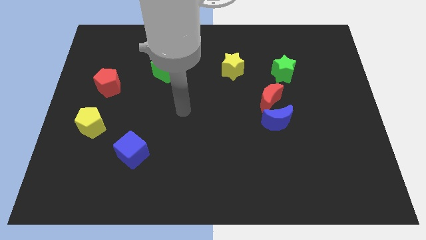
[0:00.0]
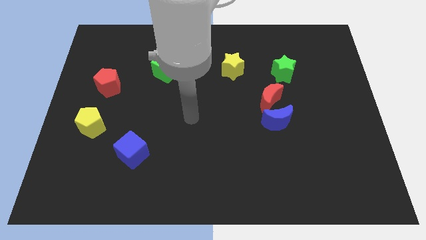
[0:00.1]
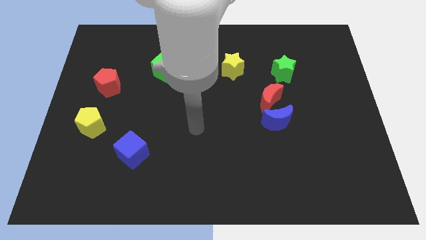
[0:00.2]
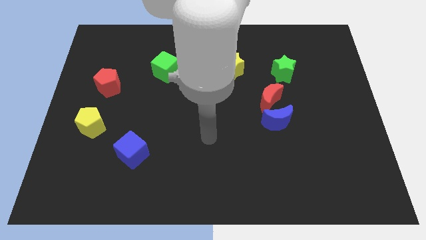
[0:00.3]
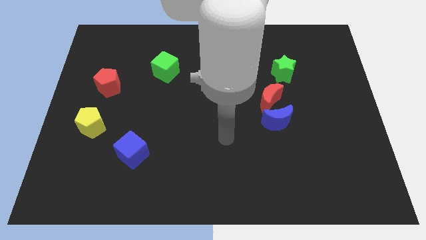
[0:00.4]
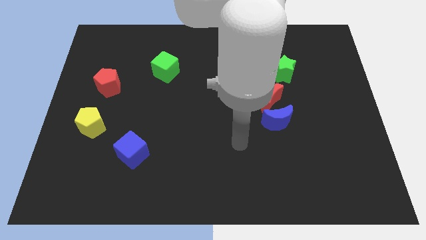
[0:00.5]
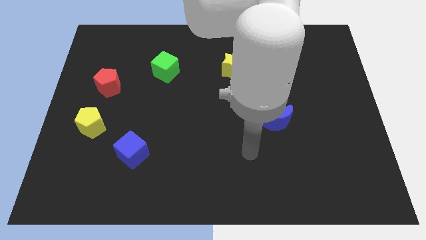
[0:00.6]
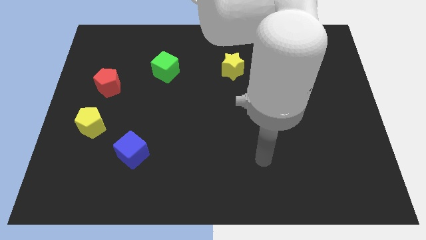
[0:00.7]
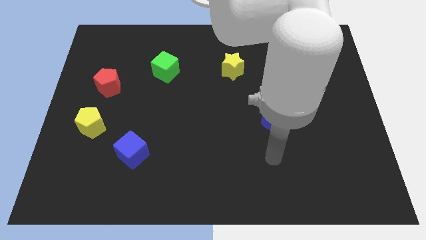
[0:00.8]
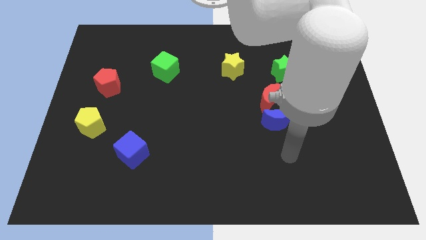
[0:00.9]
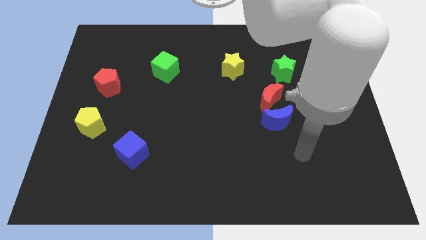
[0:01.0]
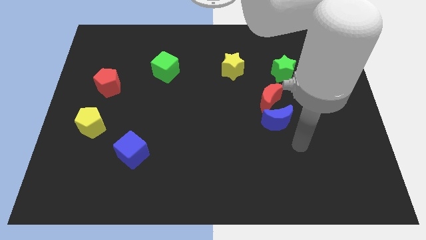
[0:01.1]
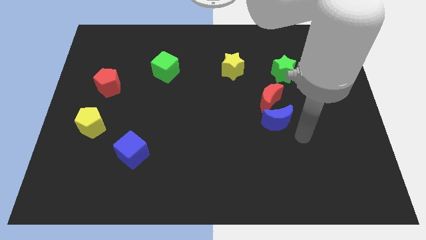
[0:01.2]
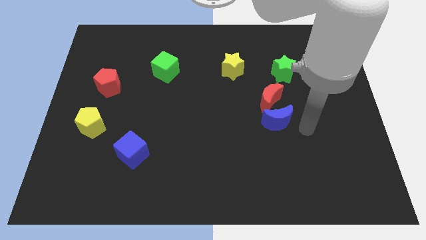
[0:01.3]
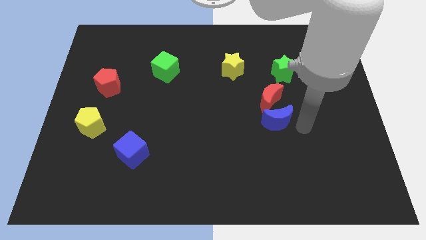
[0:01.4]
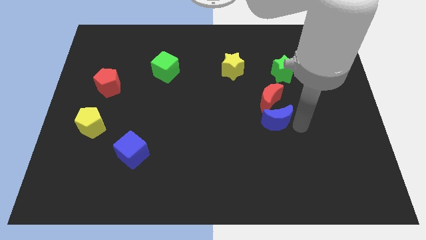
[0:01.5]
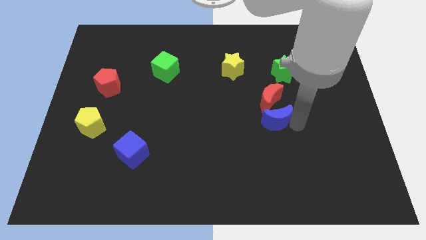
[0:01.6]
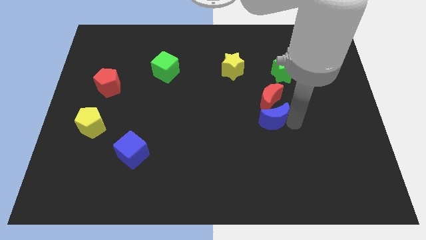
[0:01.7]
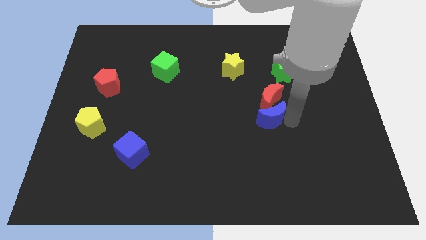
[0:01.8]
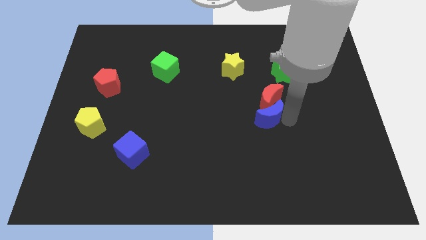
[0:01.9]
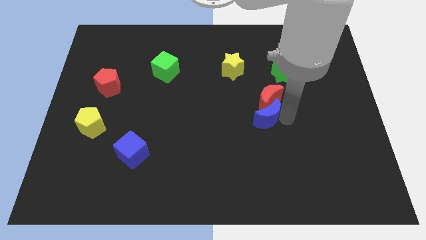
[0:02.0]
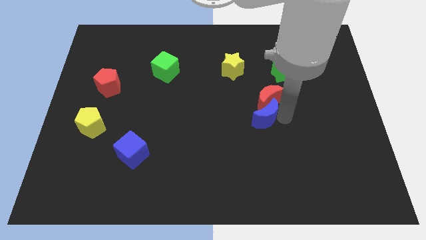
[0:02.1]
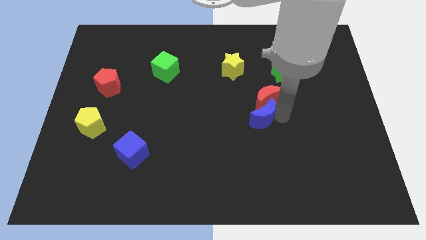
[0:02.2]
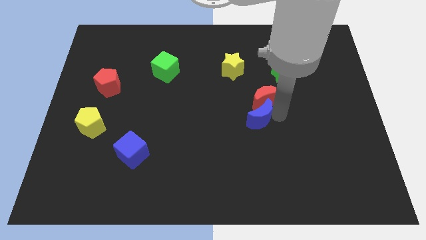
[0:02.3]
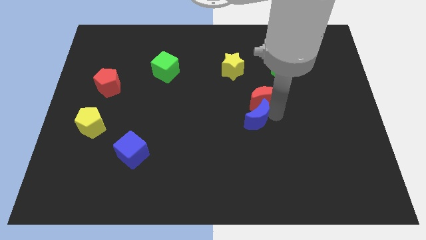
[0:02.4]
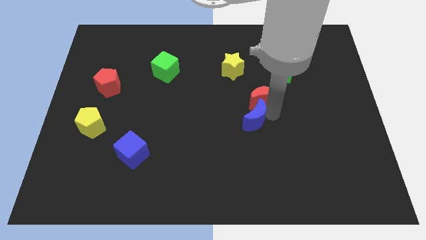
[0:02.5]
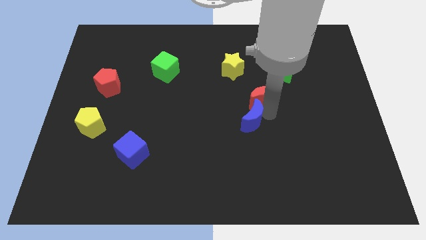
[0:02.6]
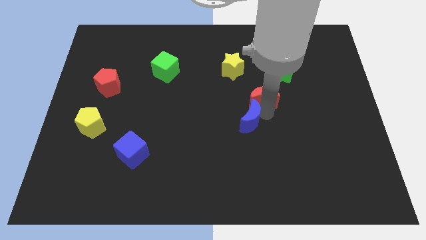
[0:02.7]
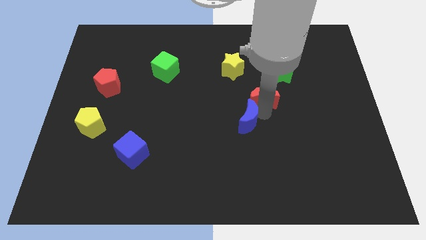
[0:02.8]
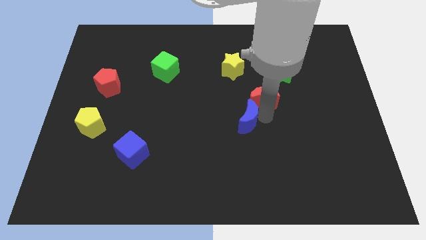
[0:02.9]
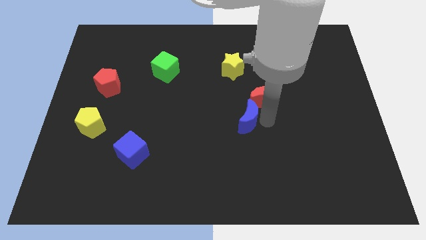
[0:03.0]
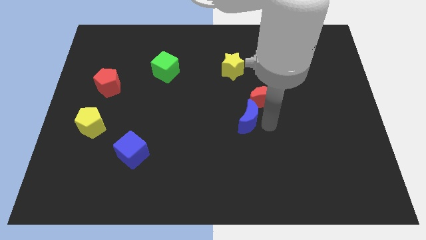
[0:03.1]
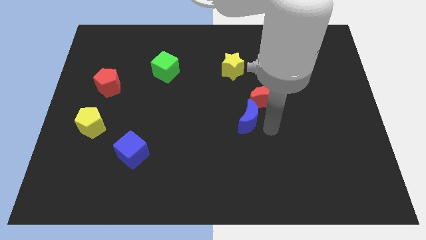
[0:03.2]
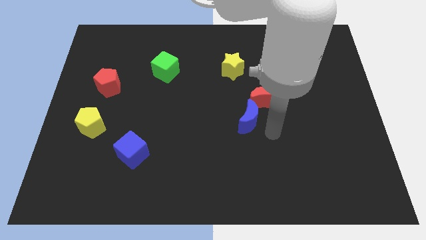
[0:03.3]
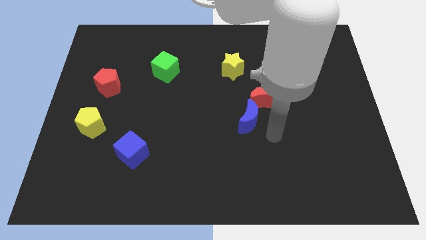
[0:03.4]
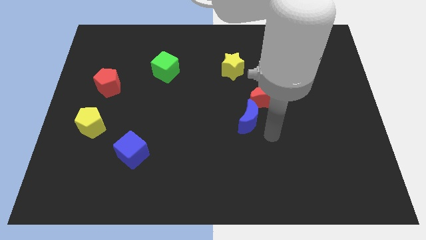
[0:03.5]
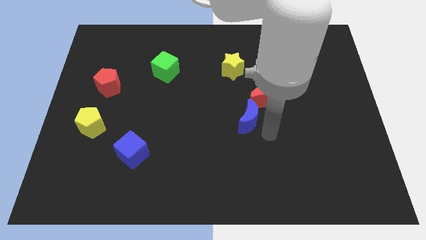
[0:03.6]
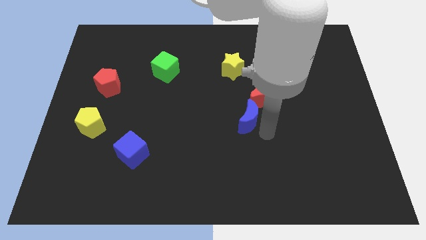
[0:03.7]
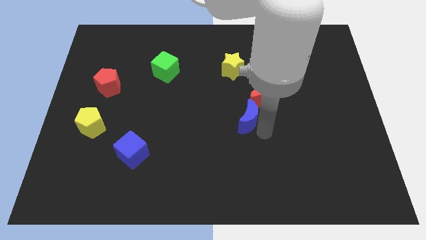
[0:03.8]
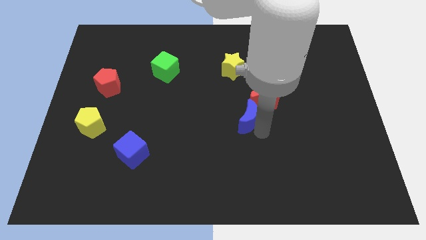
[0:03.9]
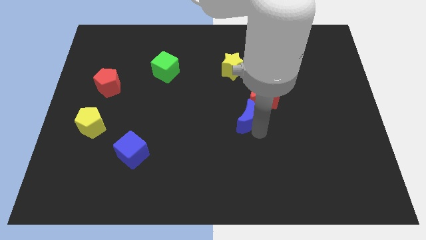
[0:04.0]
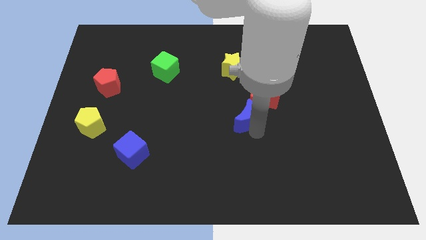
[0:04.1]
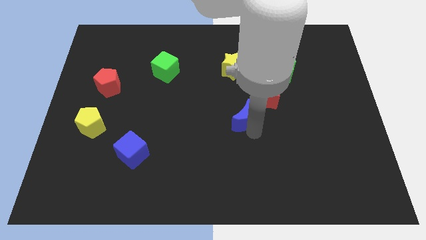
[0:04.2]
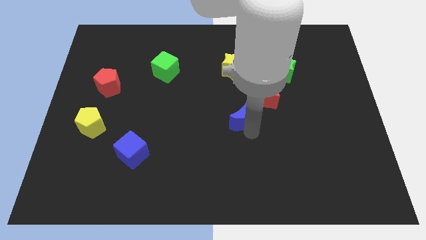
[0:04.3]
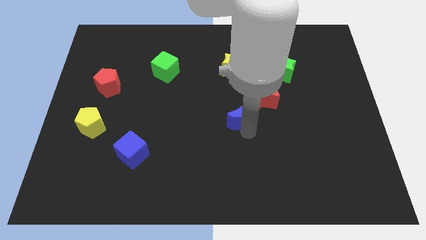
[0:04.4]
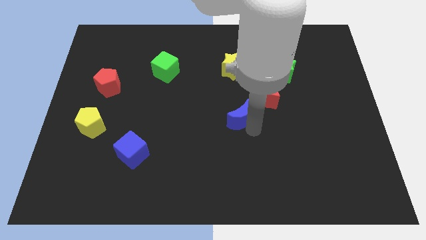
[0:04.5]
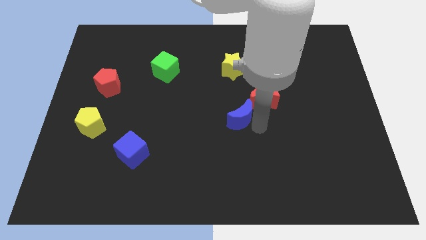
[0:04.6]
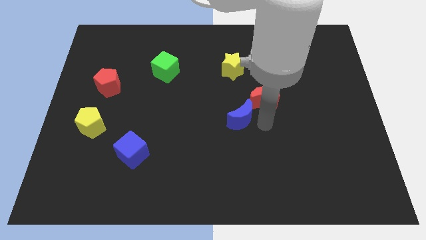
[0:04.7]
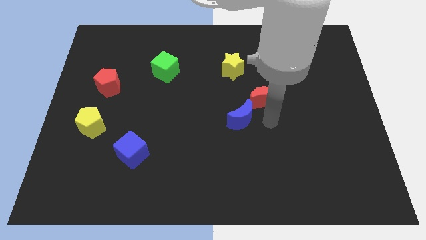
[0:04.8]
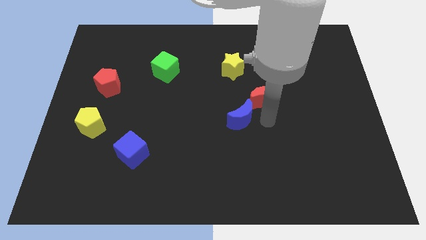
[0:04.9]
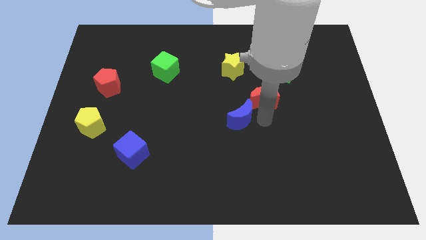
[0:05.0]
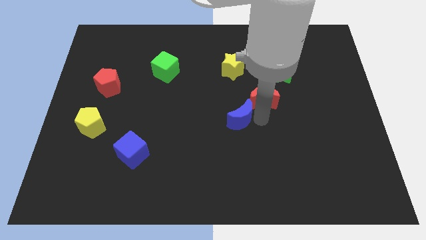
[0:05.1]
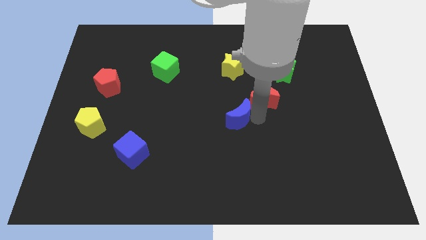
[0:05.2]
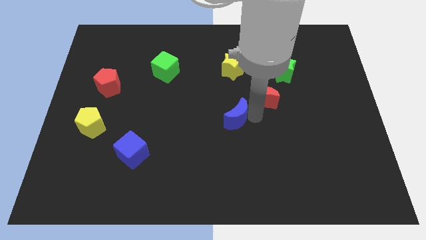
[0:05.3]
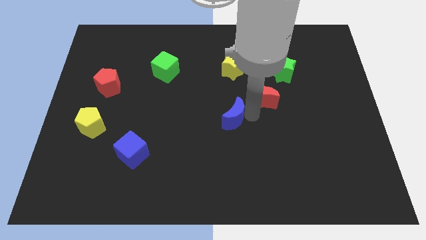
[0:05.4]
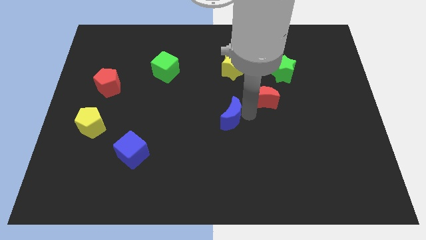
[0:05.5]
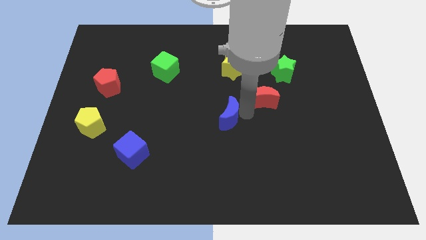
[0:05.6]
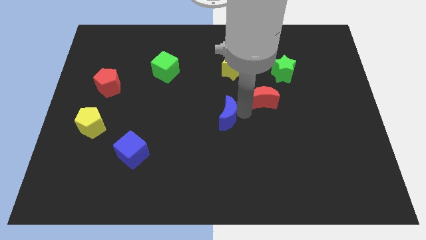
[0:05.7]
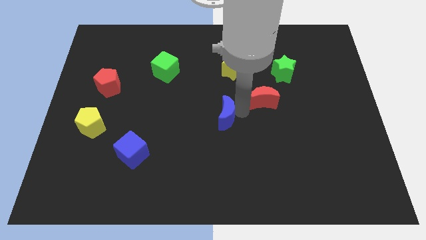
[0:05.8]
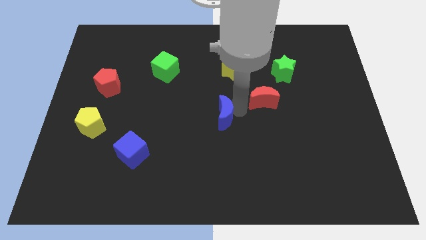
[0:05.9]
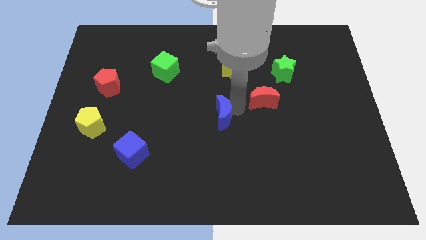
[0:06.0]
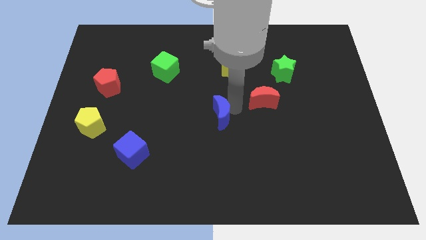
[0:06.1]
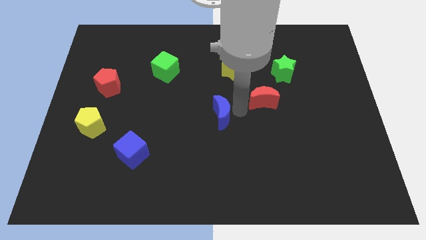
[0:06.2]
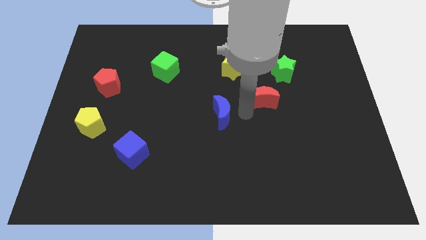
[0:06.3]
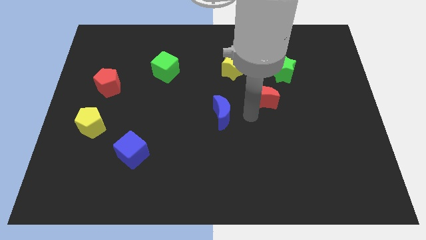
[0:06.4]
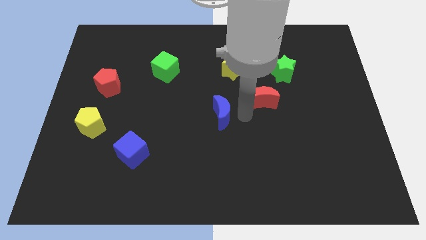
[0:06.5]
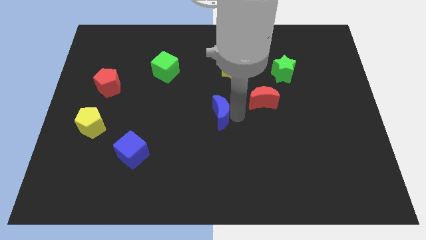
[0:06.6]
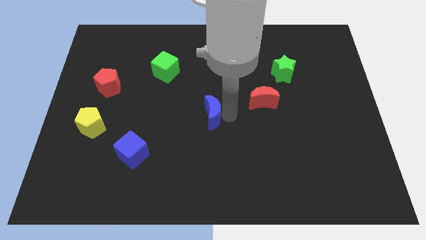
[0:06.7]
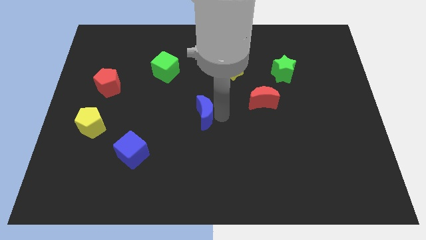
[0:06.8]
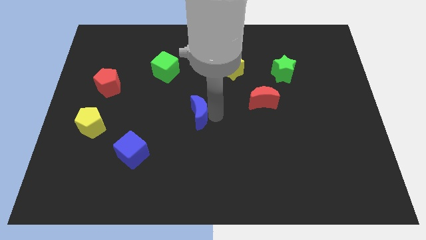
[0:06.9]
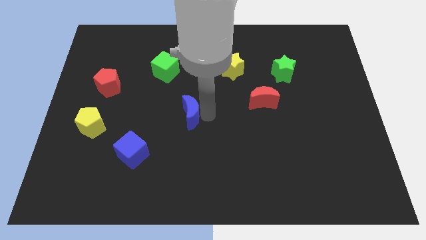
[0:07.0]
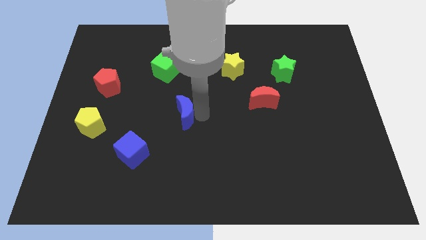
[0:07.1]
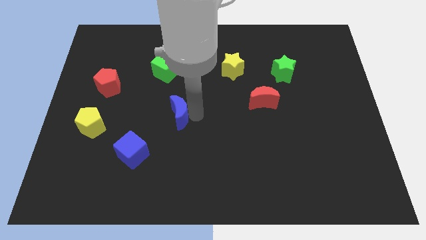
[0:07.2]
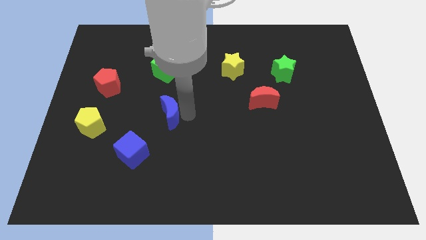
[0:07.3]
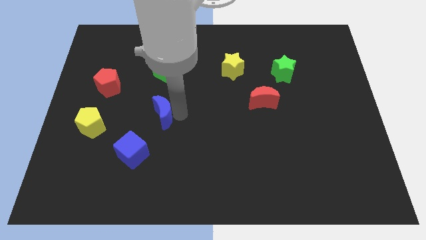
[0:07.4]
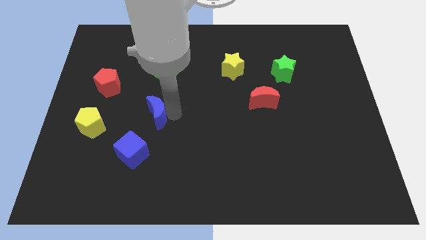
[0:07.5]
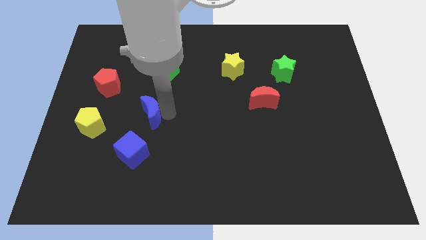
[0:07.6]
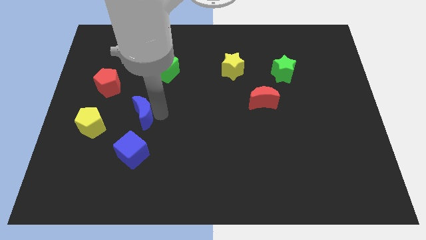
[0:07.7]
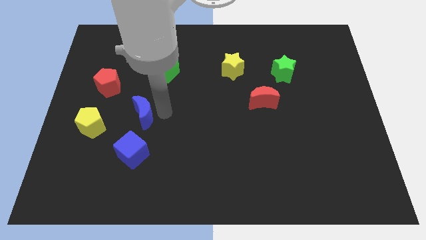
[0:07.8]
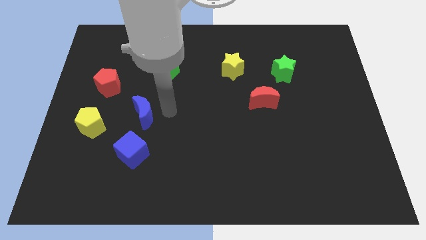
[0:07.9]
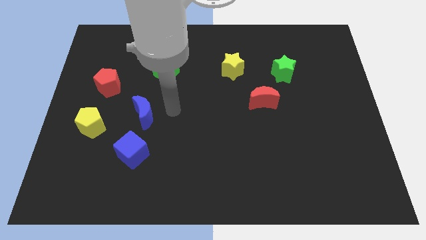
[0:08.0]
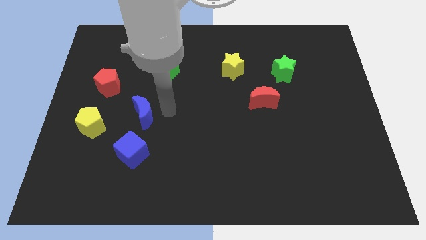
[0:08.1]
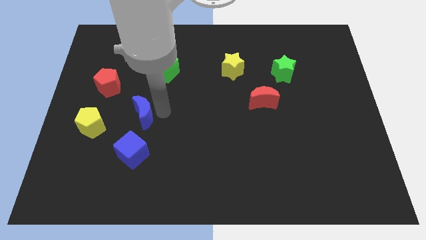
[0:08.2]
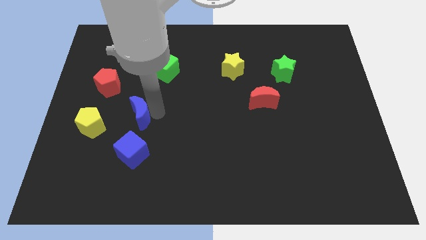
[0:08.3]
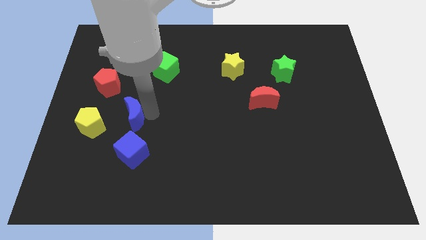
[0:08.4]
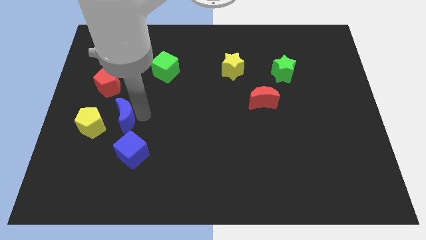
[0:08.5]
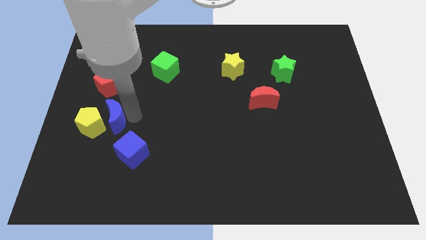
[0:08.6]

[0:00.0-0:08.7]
push the blue moon next to the yellow pentagon
